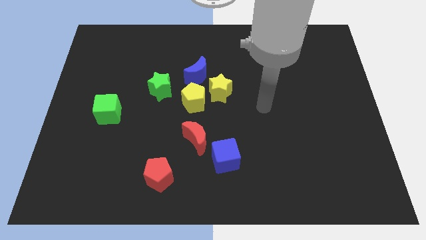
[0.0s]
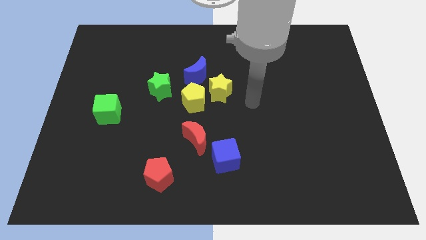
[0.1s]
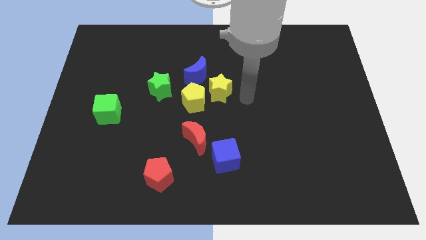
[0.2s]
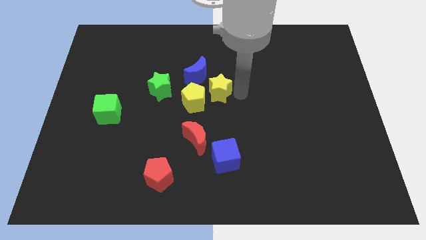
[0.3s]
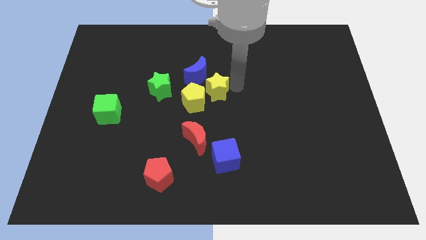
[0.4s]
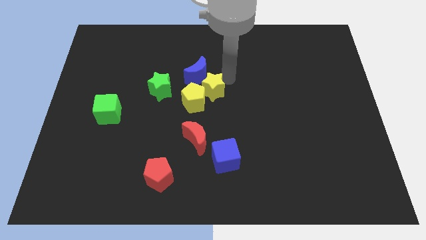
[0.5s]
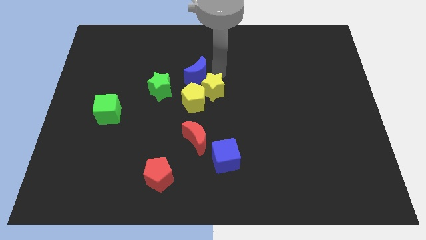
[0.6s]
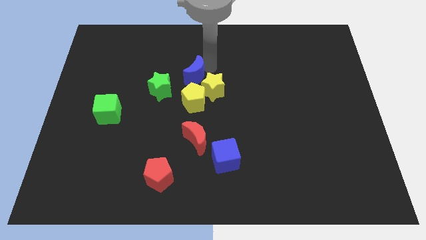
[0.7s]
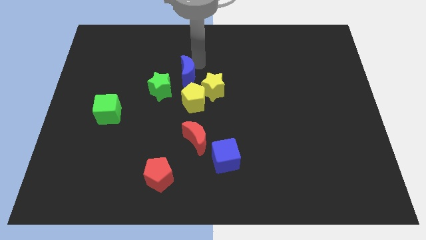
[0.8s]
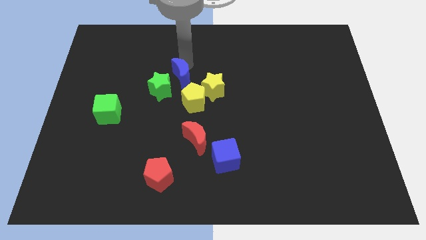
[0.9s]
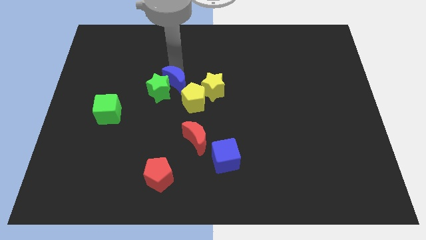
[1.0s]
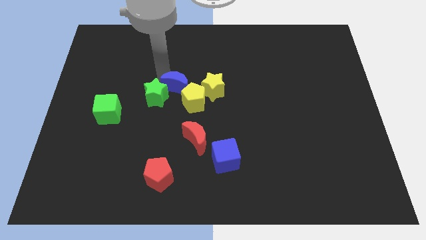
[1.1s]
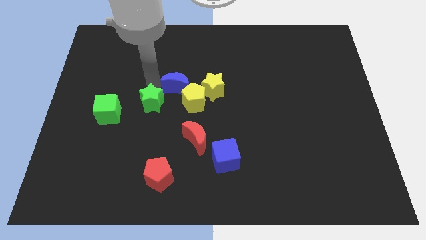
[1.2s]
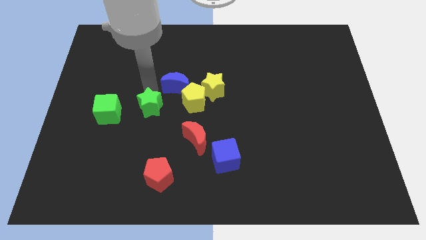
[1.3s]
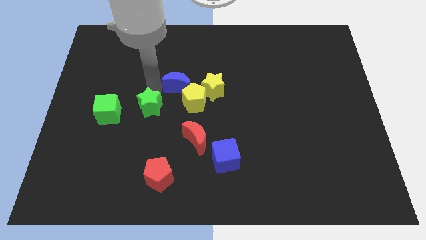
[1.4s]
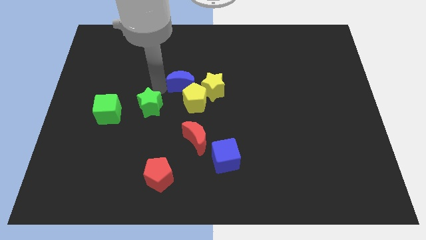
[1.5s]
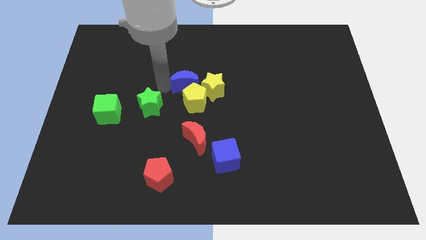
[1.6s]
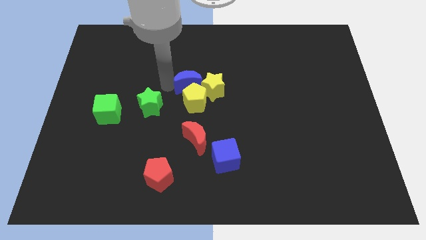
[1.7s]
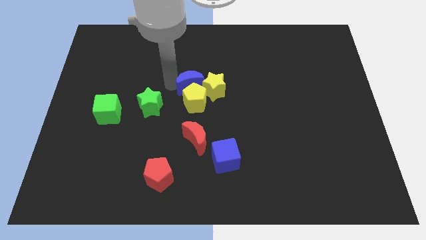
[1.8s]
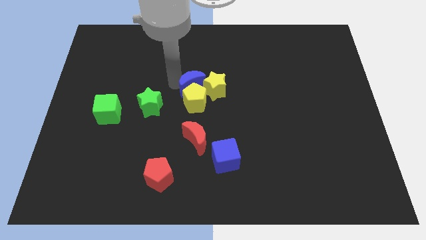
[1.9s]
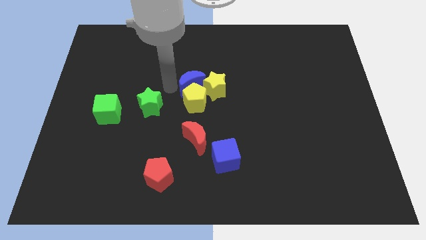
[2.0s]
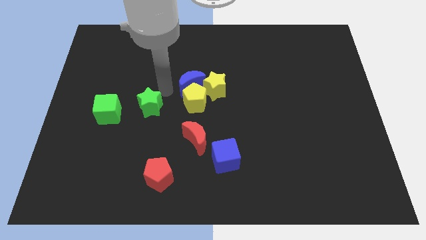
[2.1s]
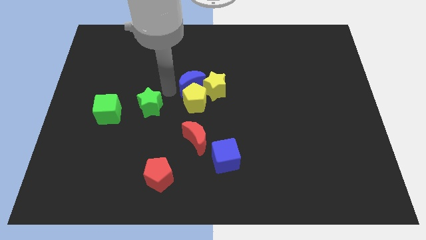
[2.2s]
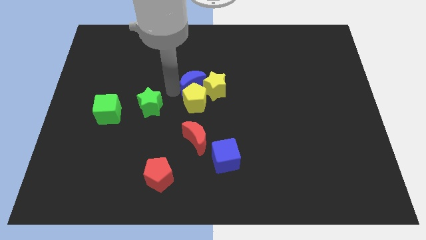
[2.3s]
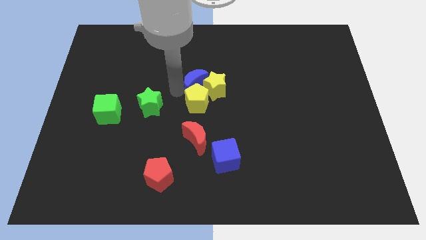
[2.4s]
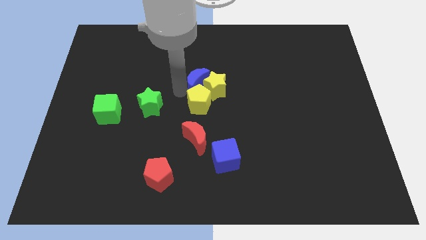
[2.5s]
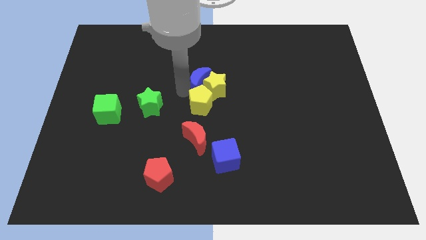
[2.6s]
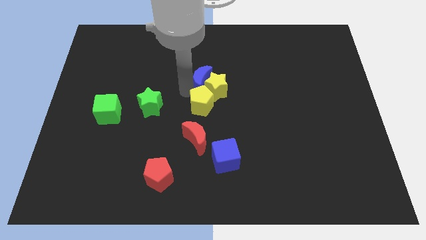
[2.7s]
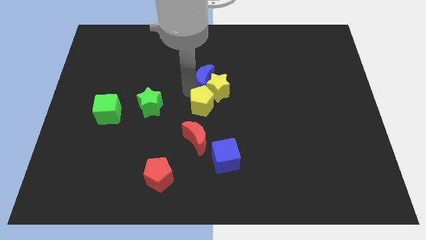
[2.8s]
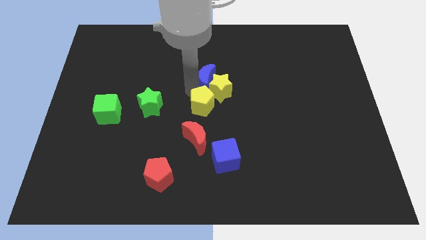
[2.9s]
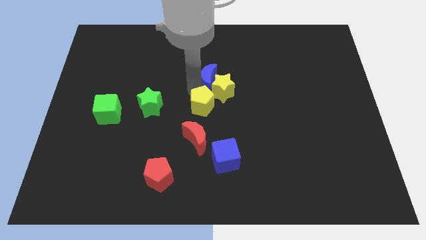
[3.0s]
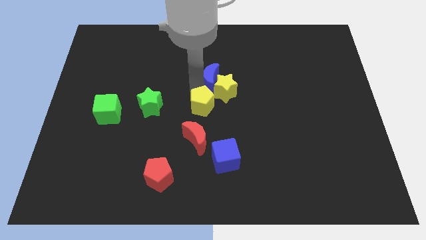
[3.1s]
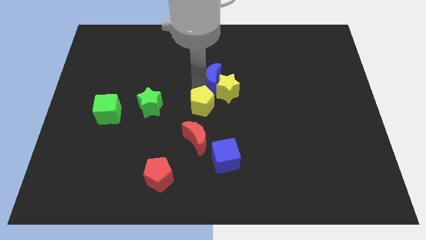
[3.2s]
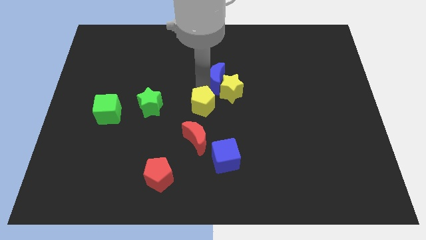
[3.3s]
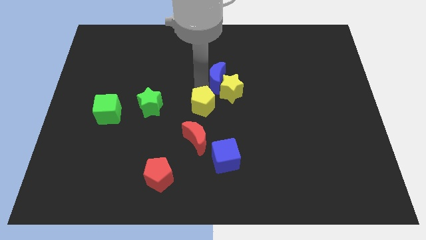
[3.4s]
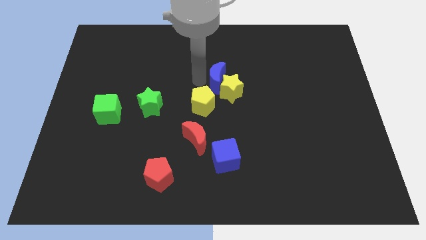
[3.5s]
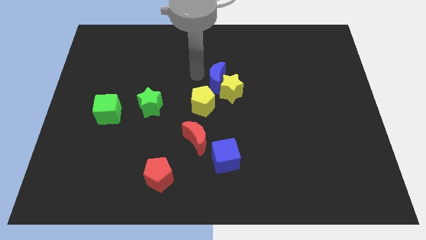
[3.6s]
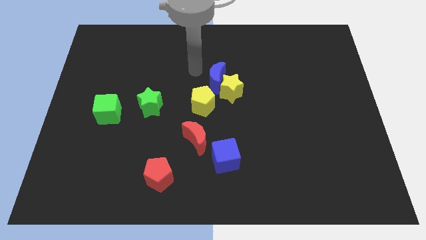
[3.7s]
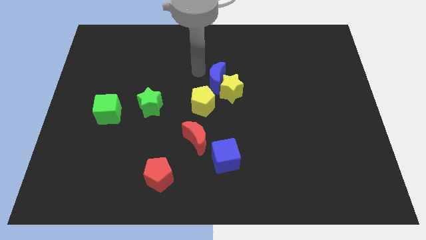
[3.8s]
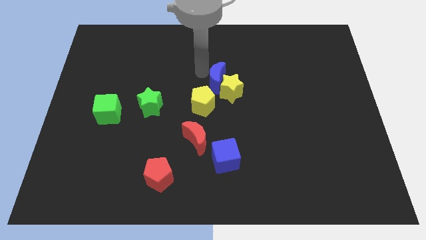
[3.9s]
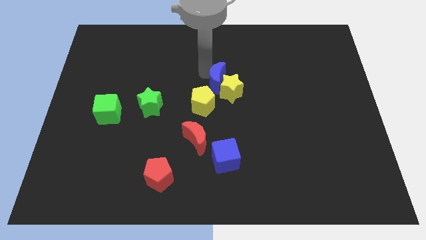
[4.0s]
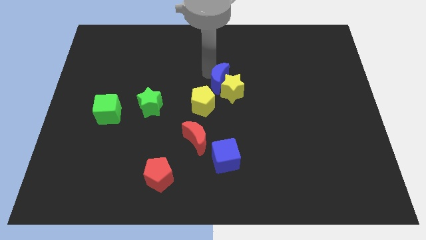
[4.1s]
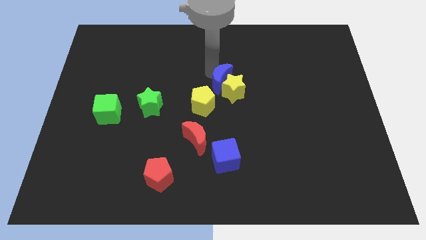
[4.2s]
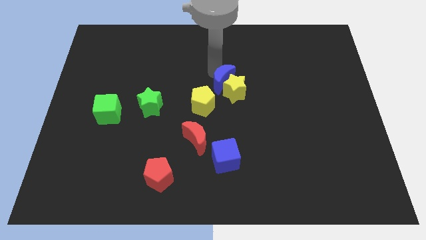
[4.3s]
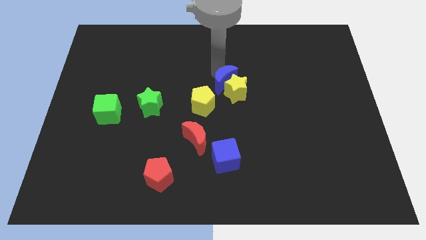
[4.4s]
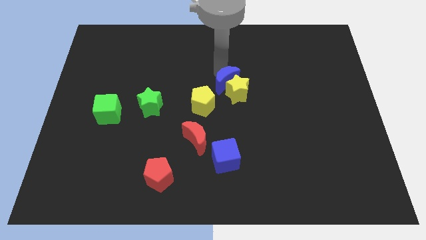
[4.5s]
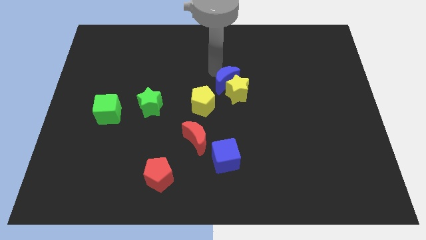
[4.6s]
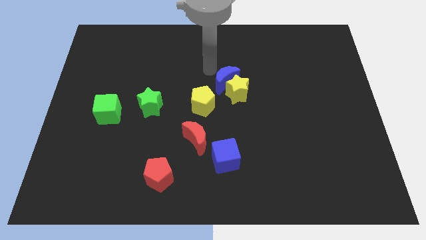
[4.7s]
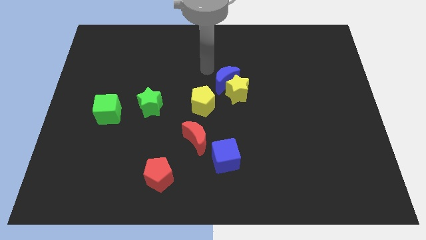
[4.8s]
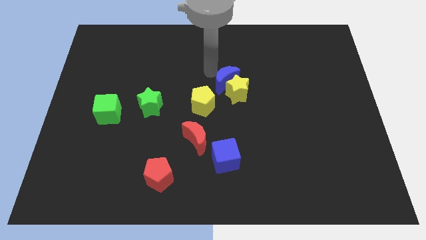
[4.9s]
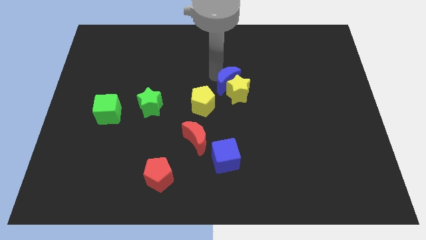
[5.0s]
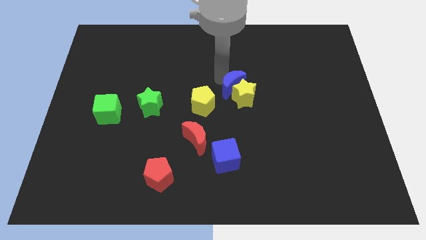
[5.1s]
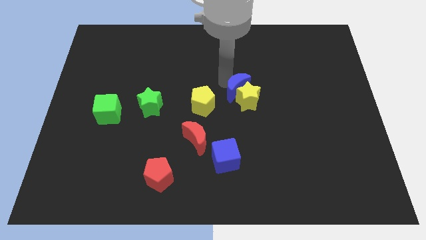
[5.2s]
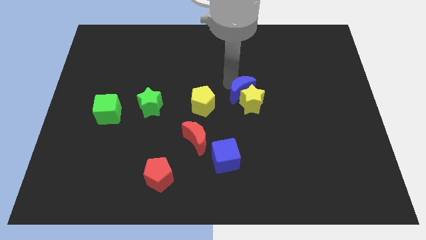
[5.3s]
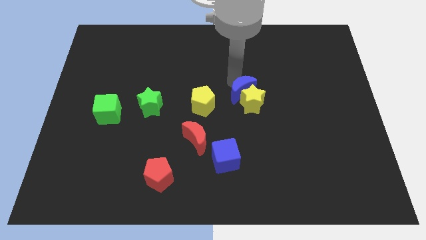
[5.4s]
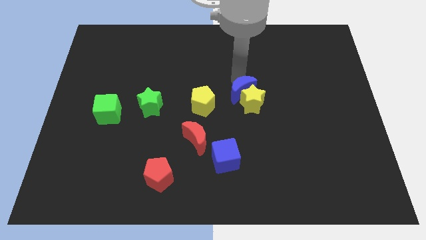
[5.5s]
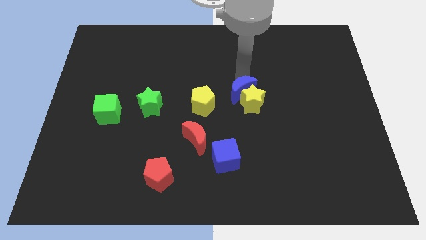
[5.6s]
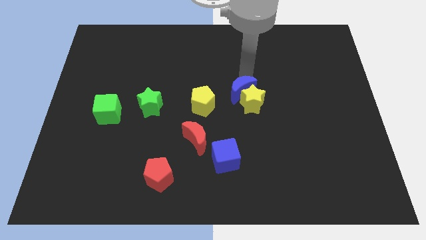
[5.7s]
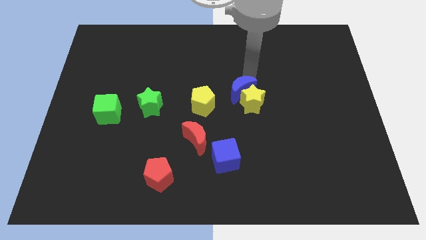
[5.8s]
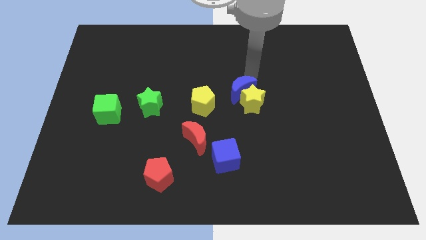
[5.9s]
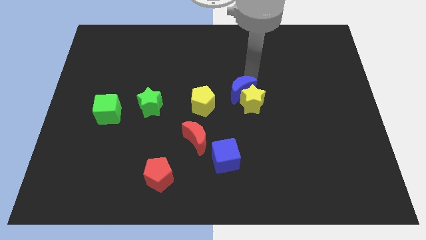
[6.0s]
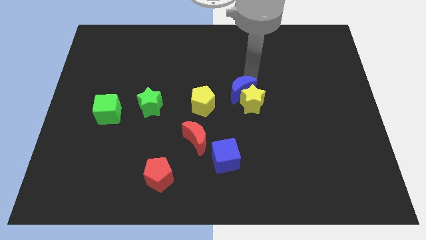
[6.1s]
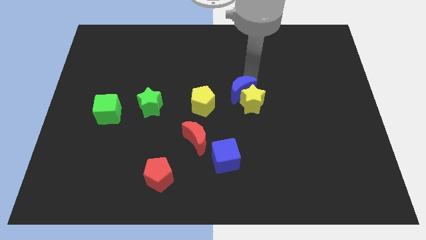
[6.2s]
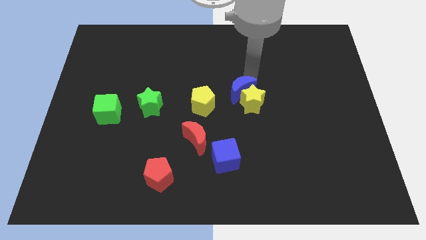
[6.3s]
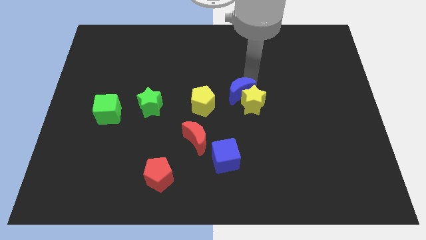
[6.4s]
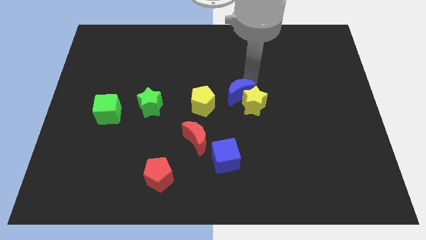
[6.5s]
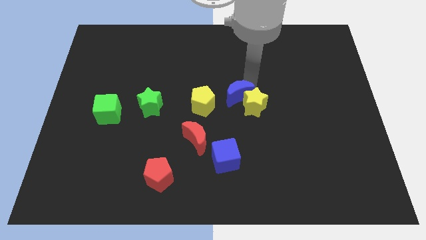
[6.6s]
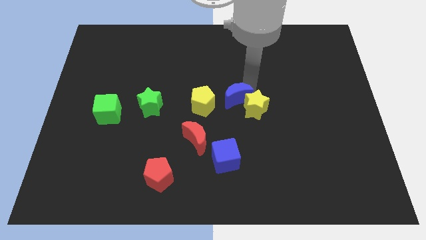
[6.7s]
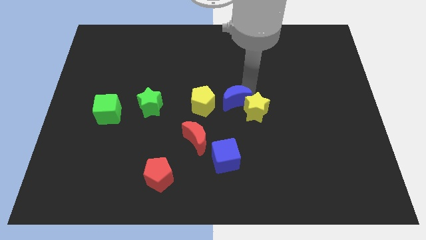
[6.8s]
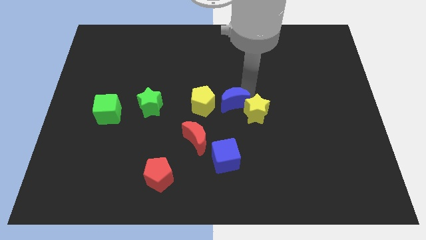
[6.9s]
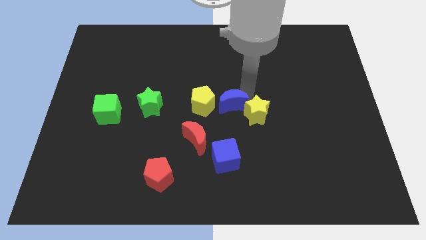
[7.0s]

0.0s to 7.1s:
slide the blue moon to the top right side of the red moon
